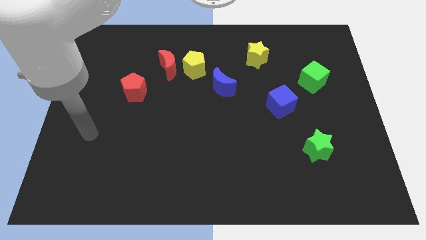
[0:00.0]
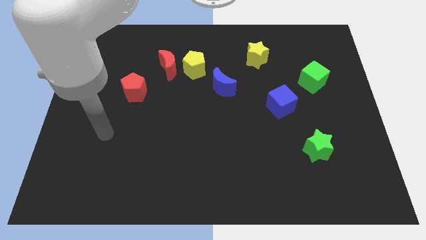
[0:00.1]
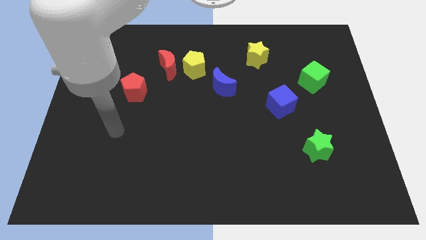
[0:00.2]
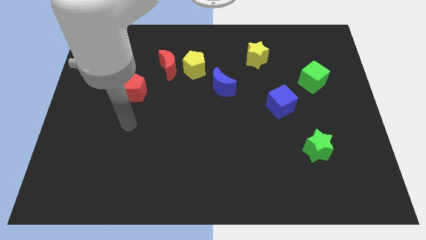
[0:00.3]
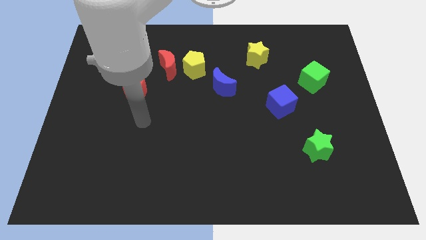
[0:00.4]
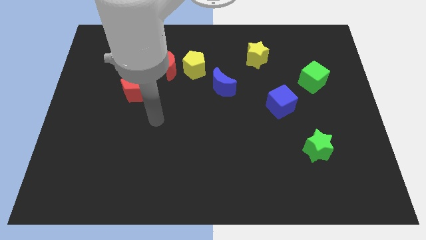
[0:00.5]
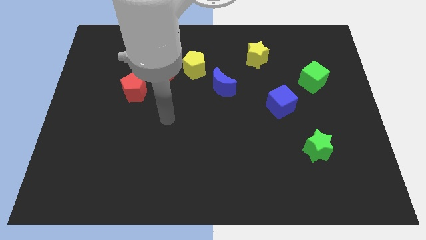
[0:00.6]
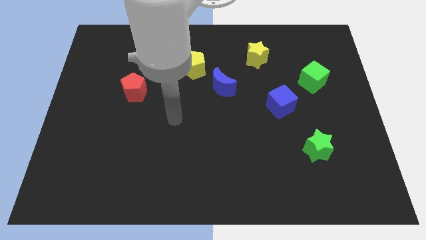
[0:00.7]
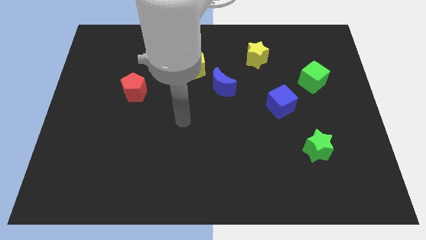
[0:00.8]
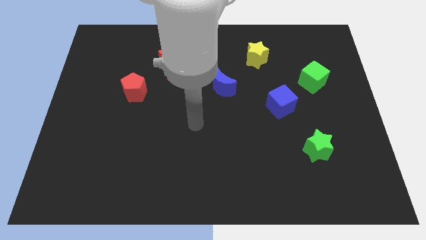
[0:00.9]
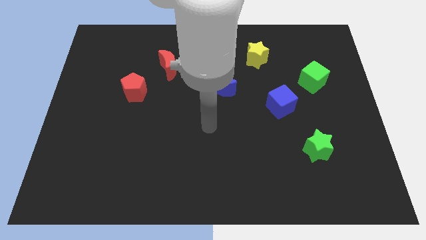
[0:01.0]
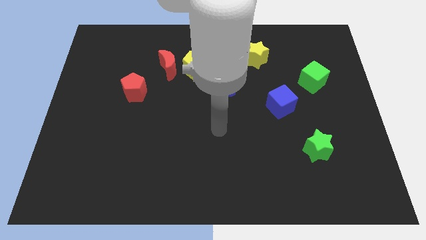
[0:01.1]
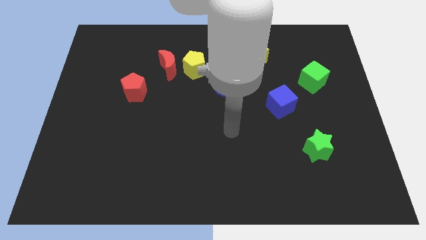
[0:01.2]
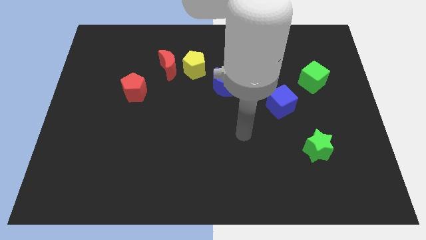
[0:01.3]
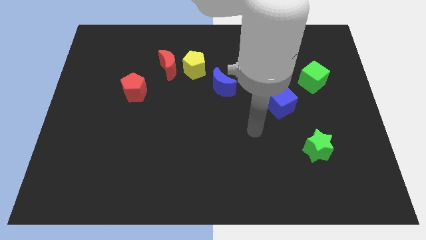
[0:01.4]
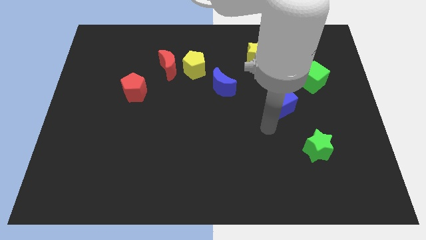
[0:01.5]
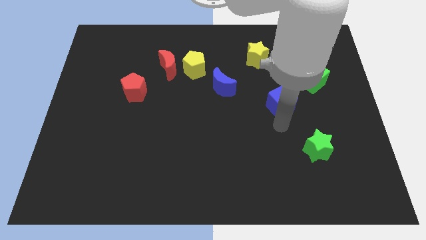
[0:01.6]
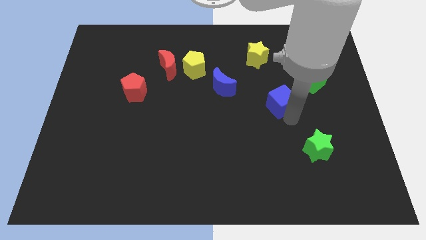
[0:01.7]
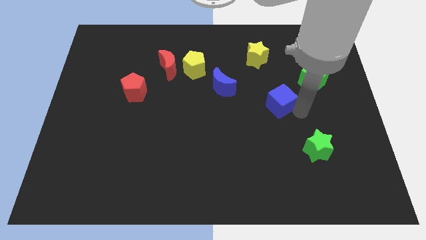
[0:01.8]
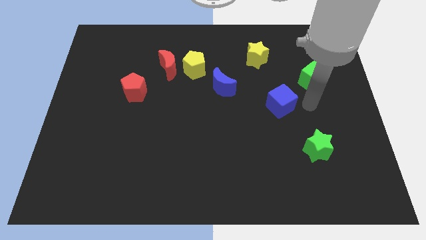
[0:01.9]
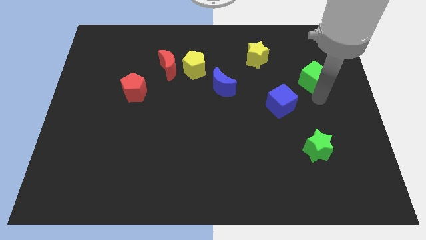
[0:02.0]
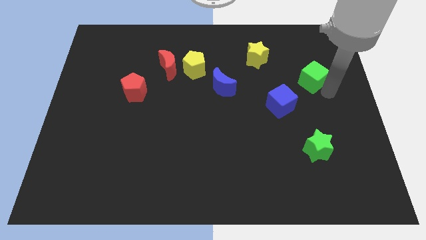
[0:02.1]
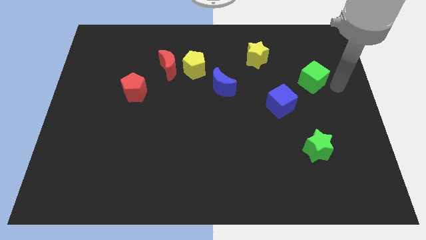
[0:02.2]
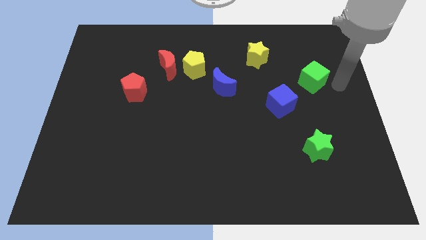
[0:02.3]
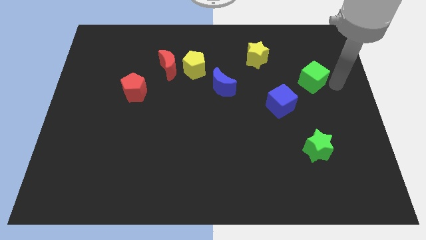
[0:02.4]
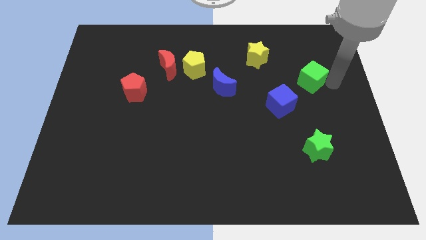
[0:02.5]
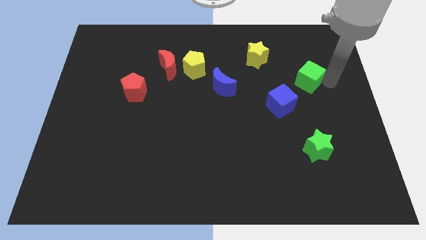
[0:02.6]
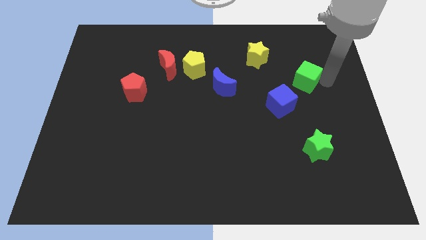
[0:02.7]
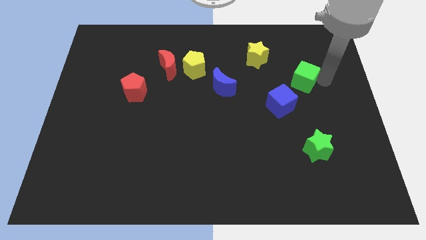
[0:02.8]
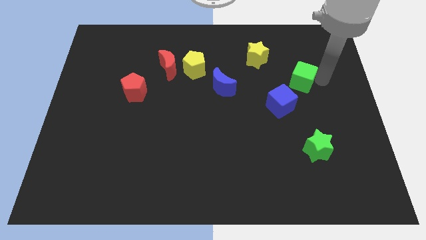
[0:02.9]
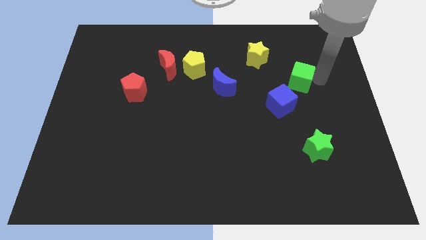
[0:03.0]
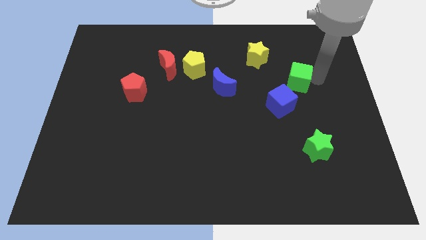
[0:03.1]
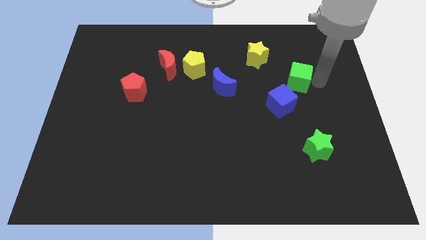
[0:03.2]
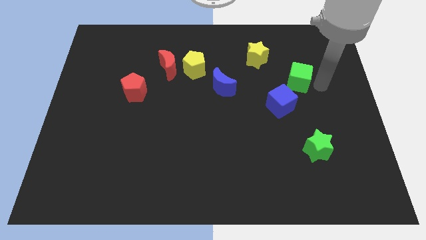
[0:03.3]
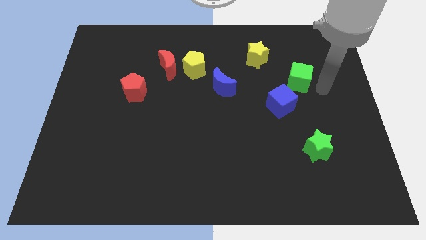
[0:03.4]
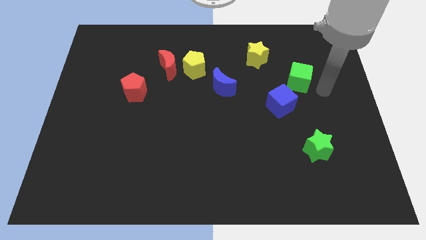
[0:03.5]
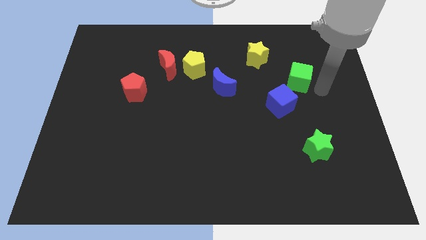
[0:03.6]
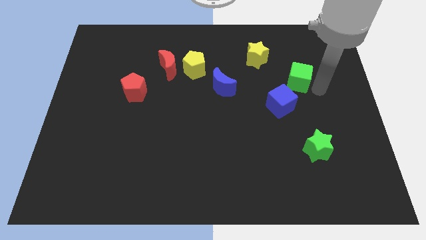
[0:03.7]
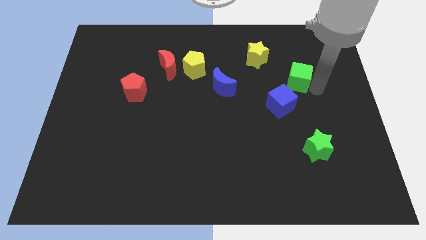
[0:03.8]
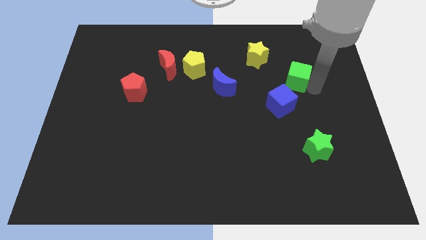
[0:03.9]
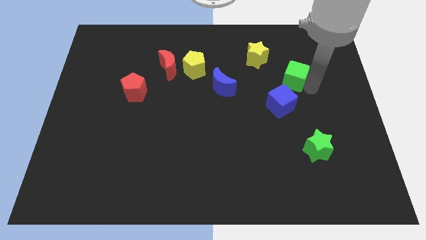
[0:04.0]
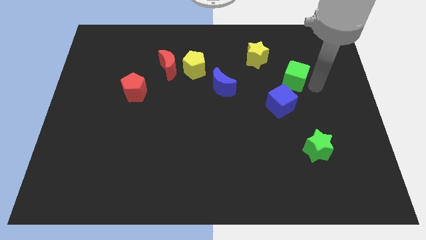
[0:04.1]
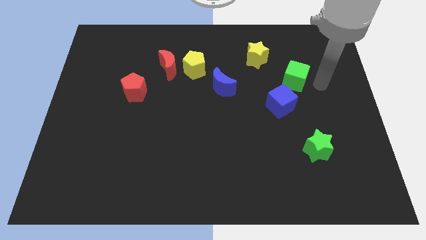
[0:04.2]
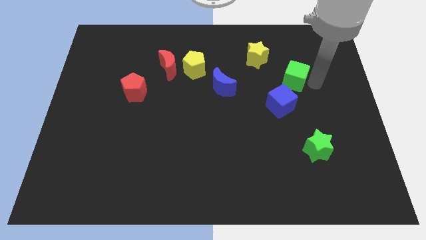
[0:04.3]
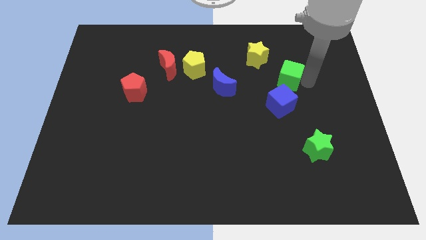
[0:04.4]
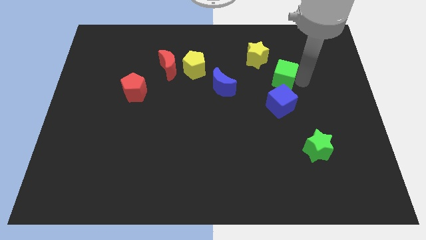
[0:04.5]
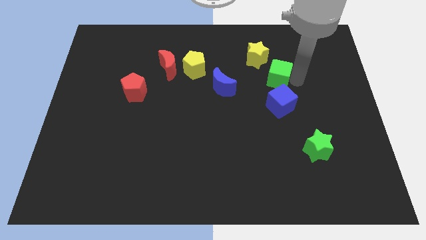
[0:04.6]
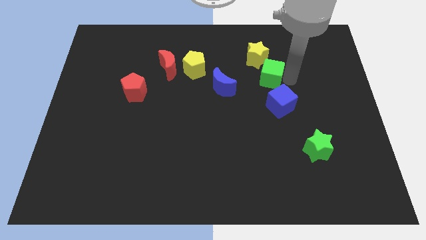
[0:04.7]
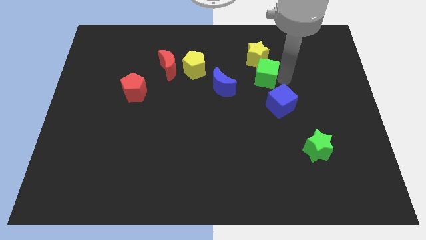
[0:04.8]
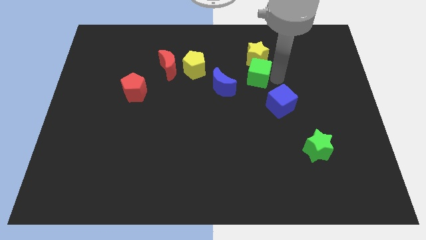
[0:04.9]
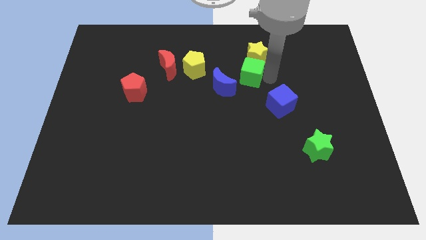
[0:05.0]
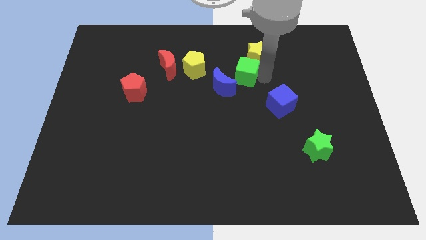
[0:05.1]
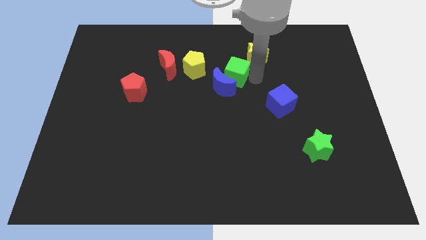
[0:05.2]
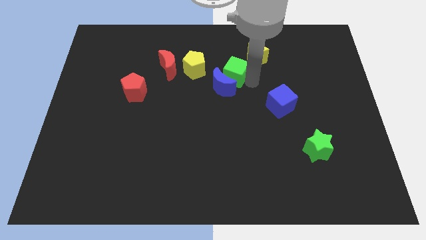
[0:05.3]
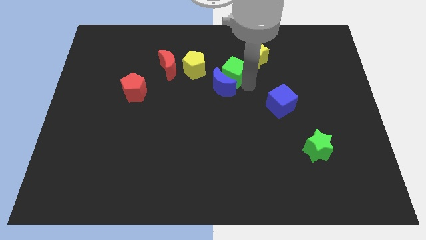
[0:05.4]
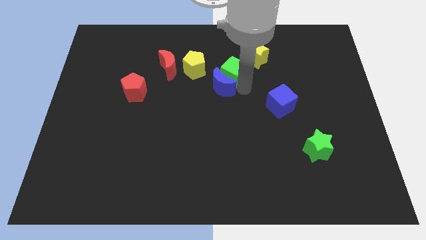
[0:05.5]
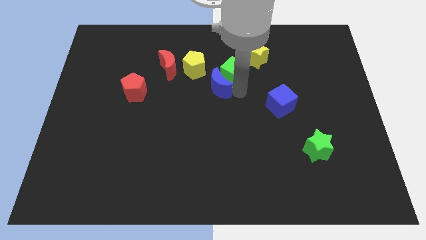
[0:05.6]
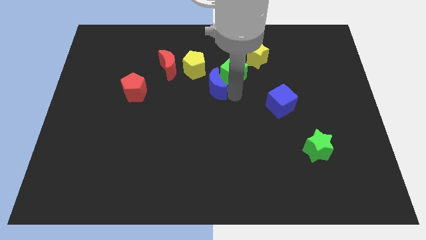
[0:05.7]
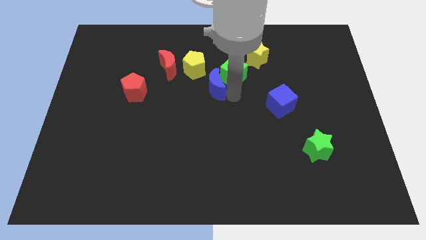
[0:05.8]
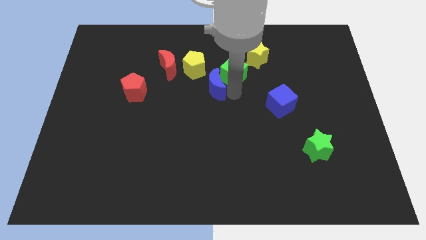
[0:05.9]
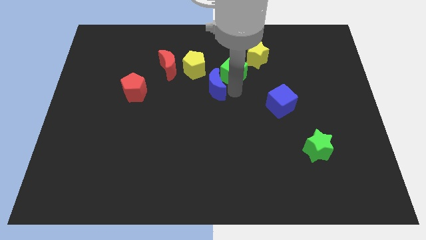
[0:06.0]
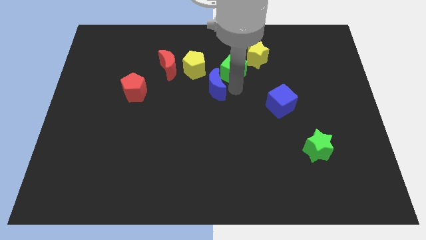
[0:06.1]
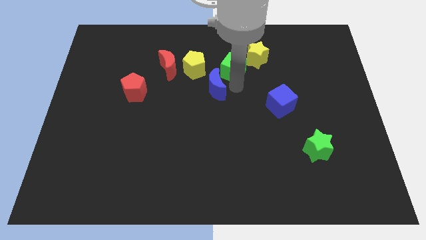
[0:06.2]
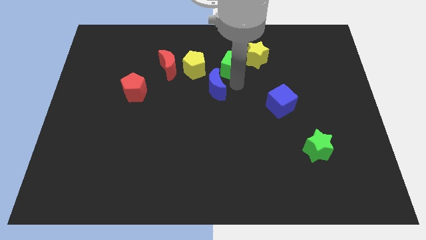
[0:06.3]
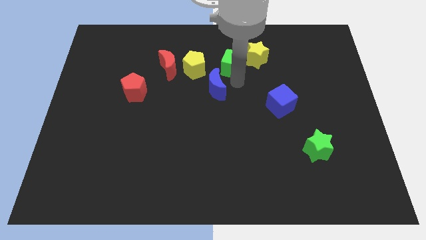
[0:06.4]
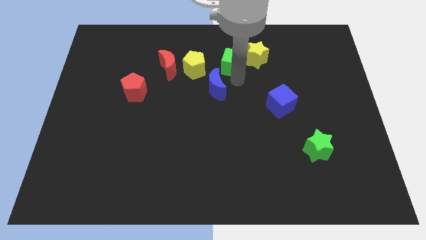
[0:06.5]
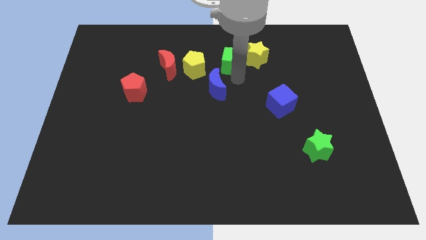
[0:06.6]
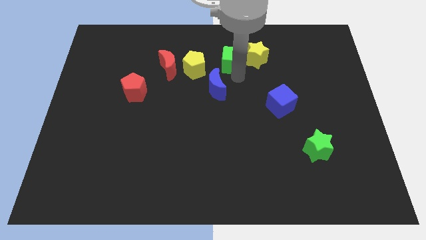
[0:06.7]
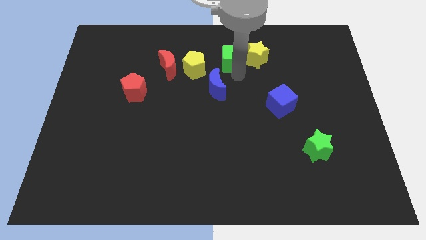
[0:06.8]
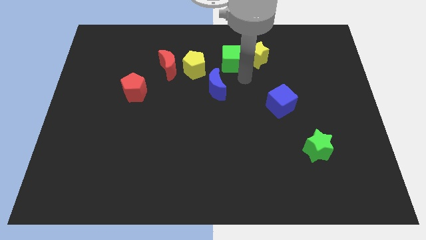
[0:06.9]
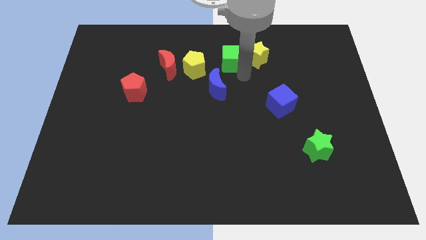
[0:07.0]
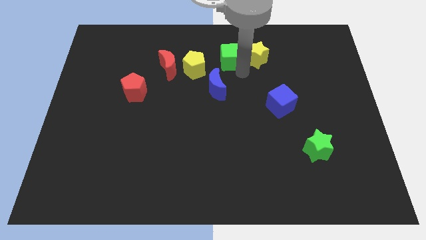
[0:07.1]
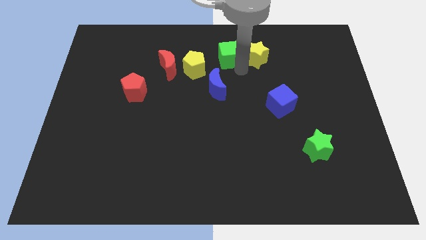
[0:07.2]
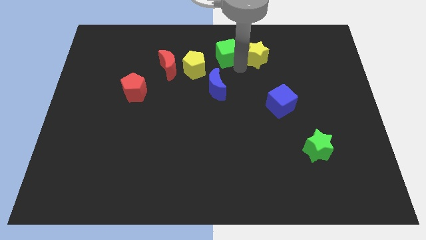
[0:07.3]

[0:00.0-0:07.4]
push the green cube to the top
